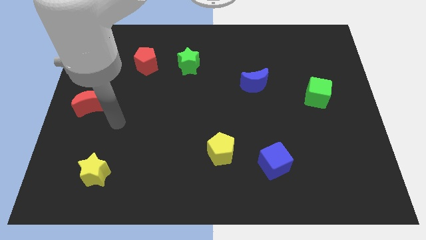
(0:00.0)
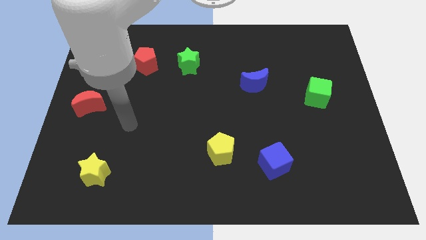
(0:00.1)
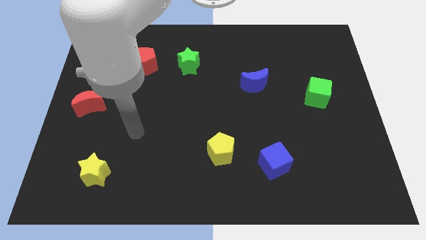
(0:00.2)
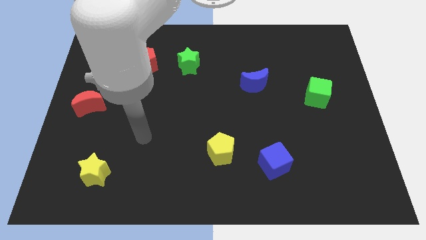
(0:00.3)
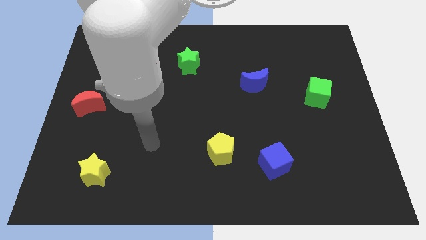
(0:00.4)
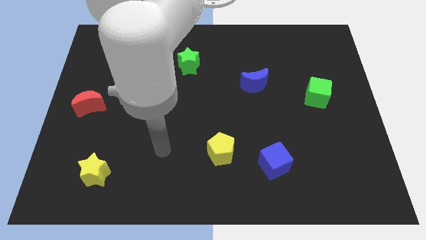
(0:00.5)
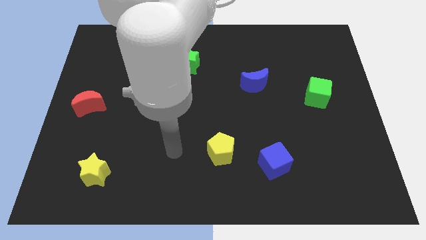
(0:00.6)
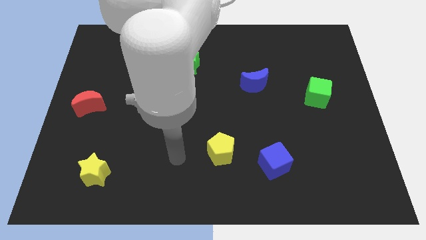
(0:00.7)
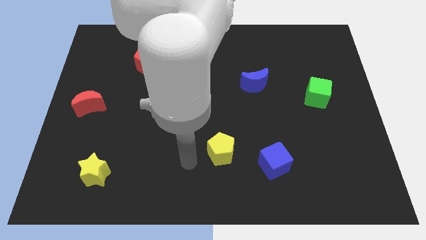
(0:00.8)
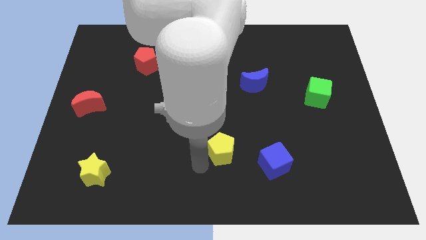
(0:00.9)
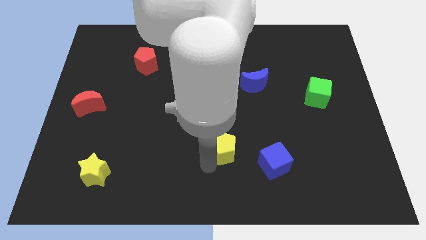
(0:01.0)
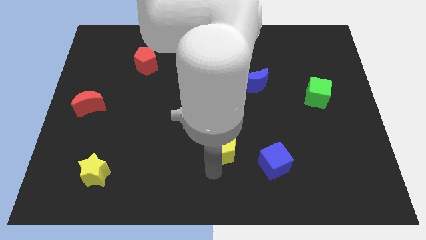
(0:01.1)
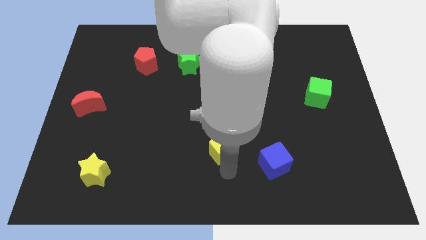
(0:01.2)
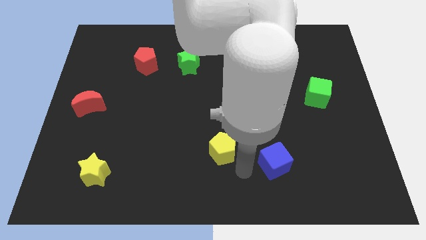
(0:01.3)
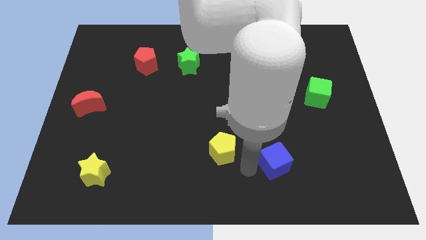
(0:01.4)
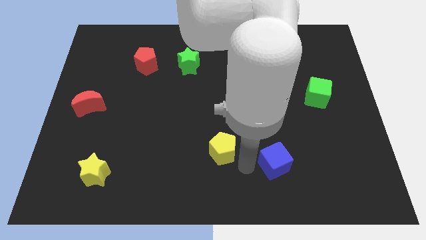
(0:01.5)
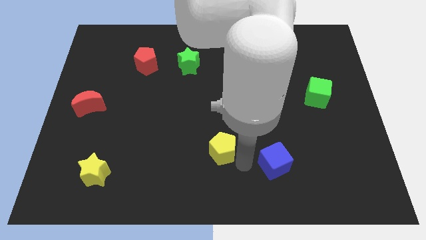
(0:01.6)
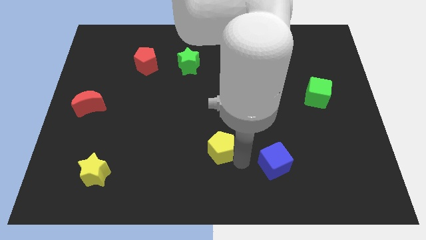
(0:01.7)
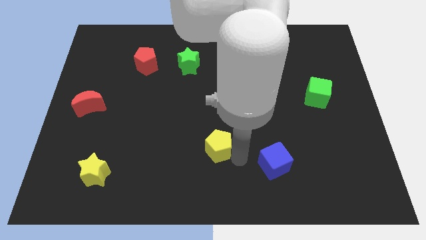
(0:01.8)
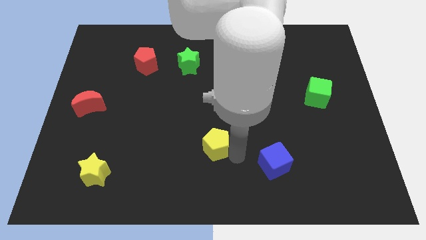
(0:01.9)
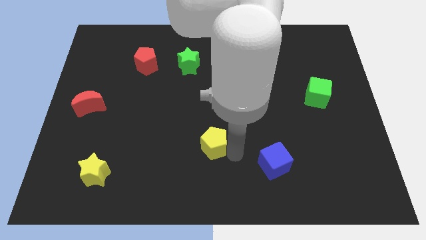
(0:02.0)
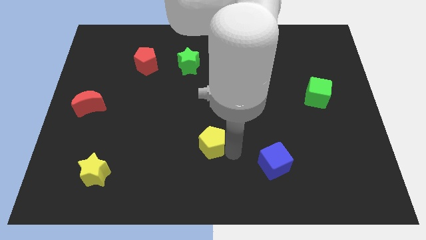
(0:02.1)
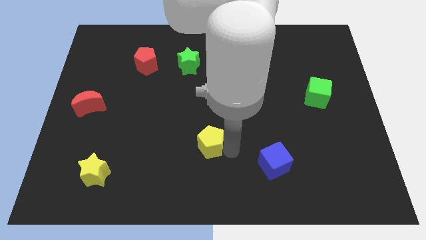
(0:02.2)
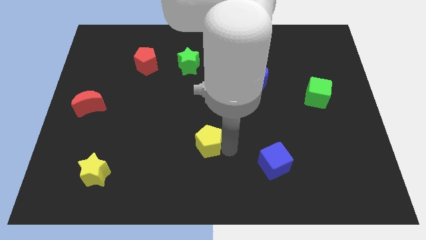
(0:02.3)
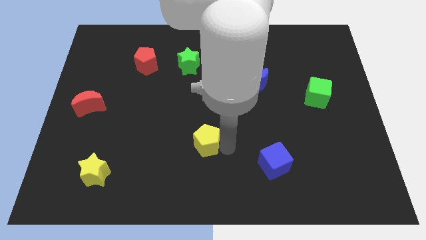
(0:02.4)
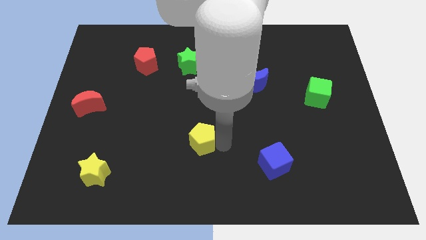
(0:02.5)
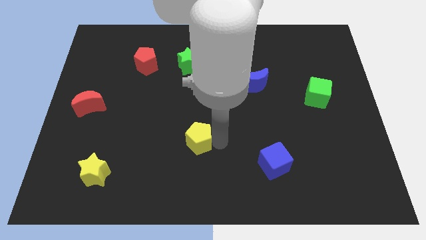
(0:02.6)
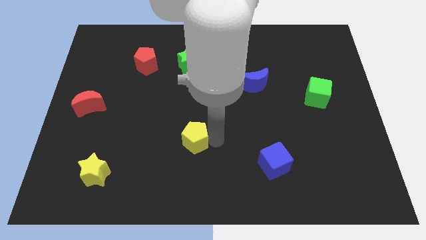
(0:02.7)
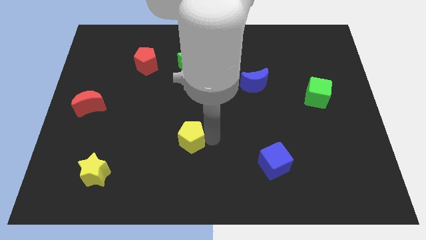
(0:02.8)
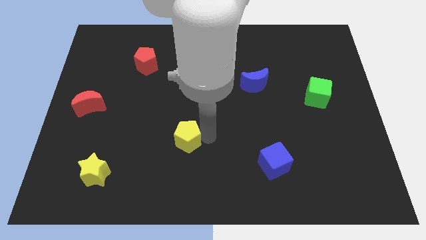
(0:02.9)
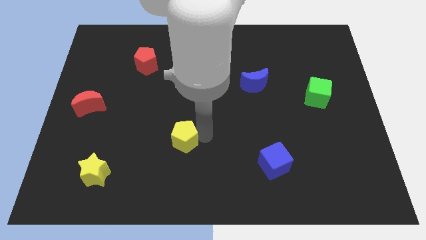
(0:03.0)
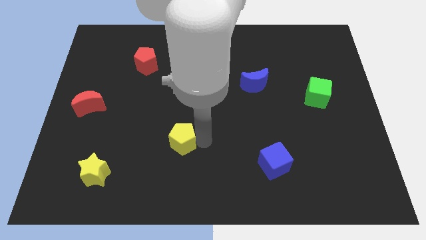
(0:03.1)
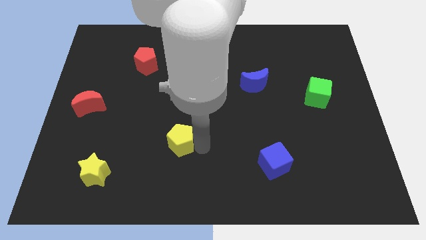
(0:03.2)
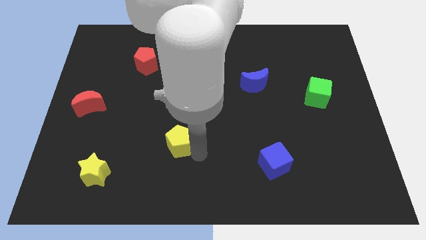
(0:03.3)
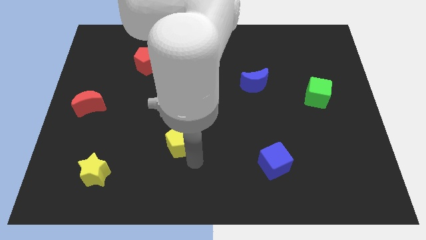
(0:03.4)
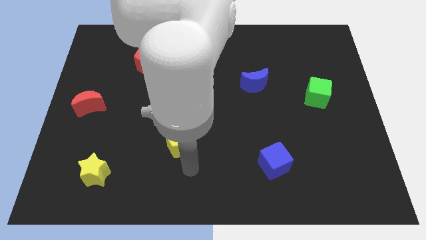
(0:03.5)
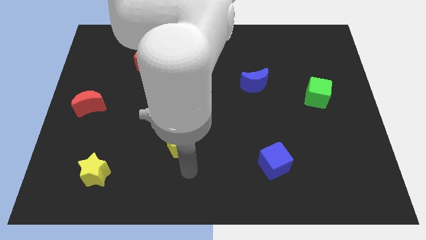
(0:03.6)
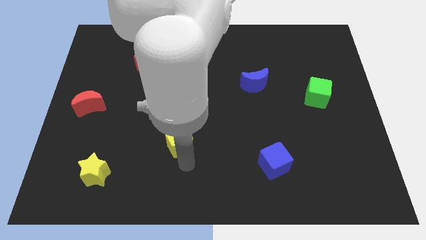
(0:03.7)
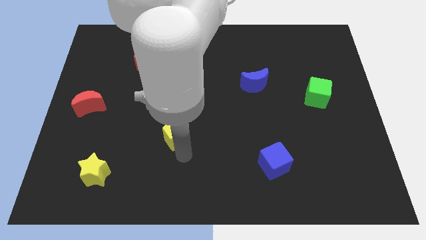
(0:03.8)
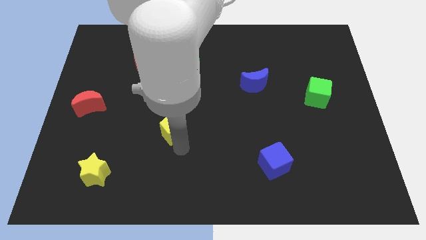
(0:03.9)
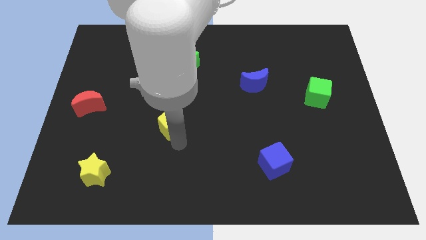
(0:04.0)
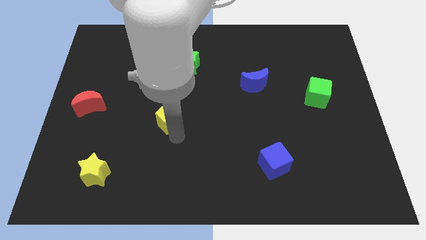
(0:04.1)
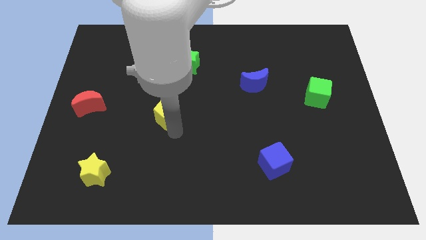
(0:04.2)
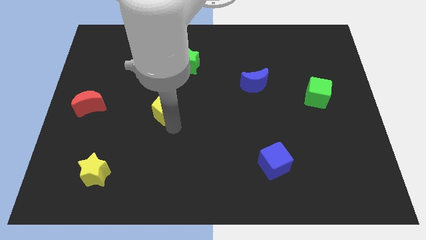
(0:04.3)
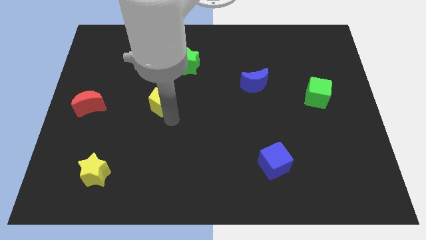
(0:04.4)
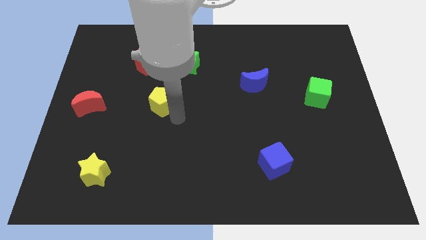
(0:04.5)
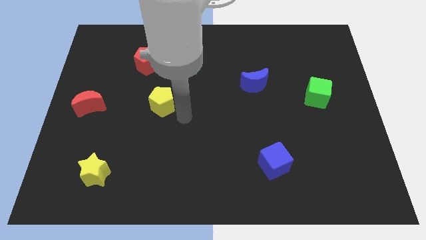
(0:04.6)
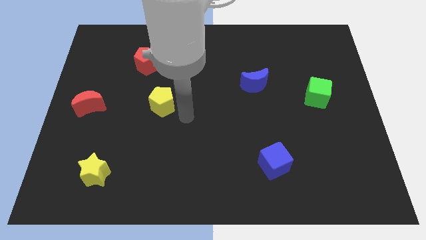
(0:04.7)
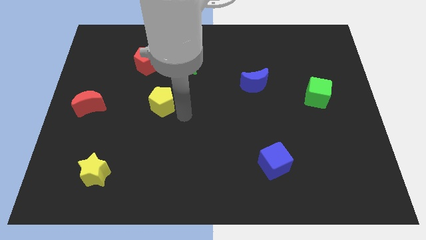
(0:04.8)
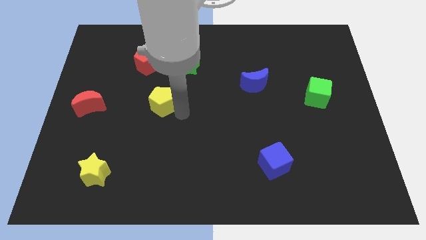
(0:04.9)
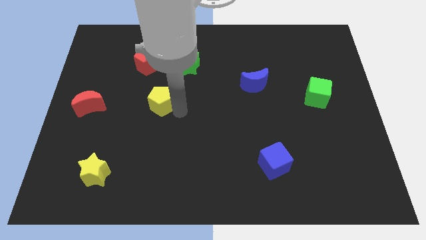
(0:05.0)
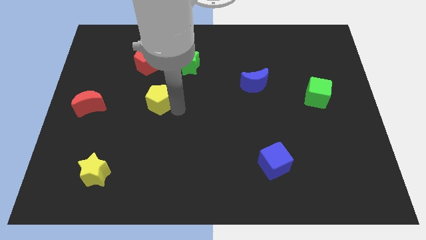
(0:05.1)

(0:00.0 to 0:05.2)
move the yellow pentagon to the bottom side of the red pentagon
